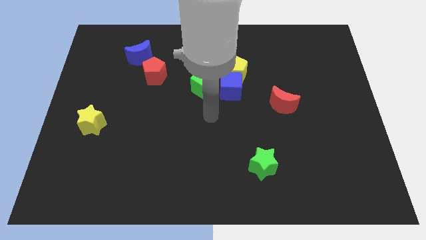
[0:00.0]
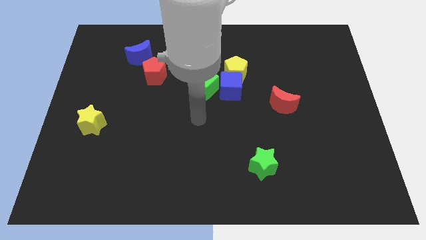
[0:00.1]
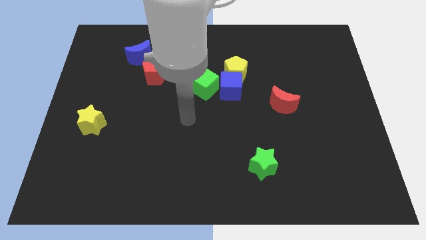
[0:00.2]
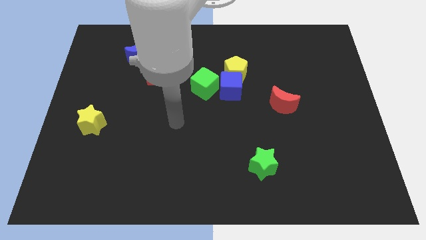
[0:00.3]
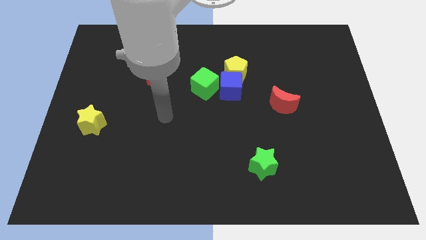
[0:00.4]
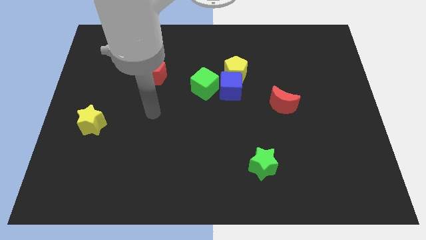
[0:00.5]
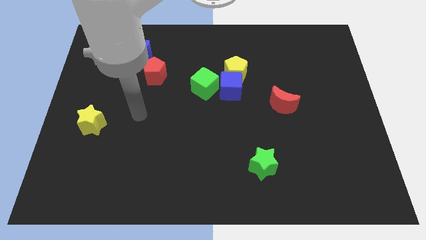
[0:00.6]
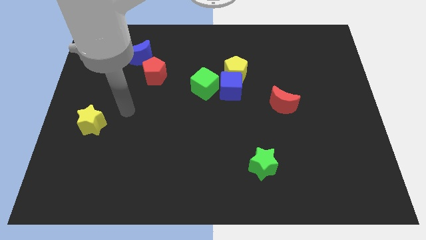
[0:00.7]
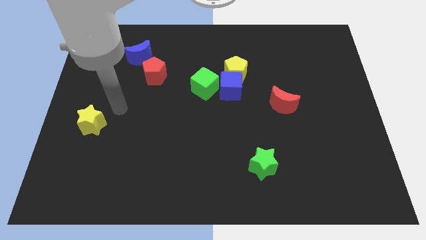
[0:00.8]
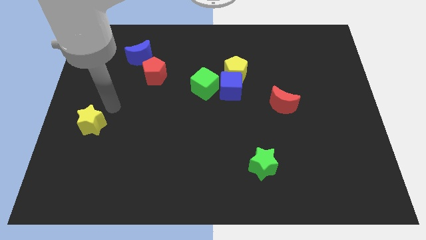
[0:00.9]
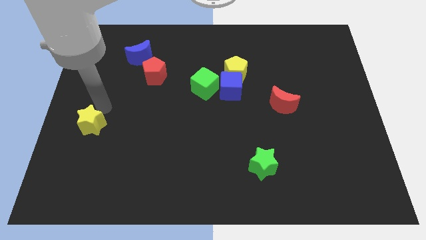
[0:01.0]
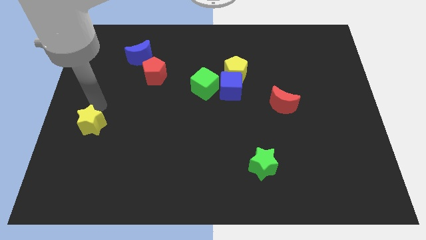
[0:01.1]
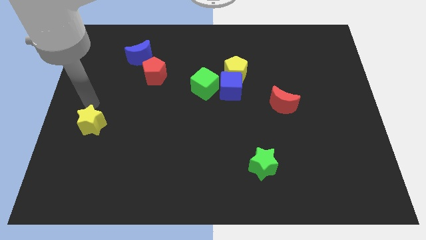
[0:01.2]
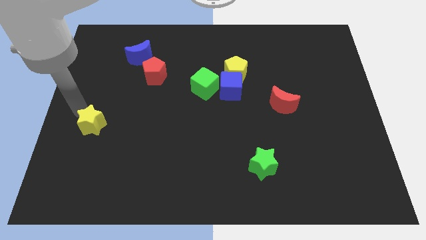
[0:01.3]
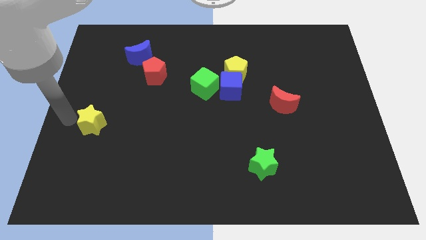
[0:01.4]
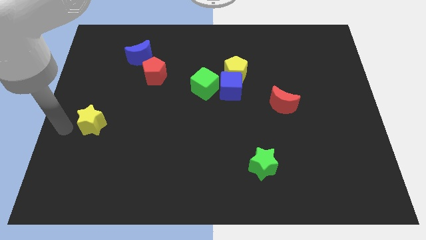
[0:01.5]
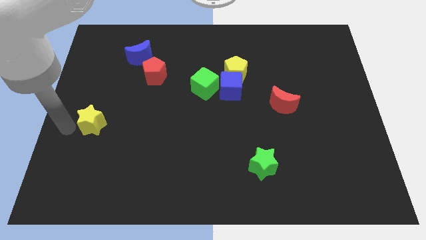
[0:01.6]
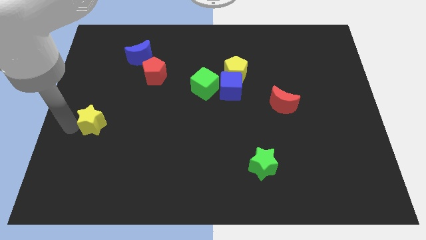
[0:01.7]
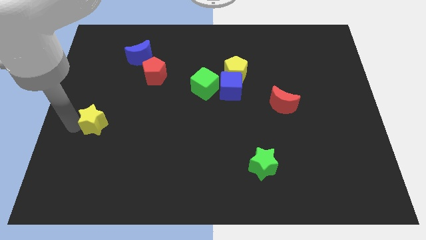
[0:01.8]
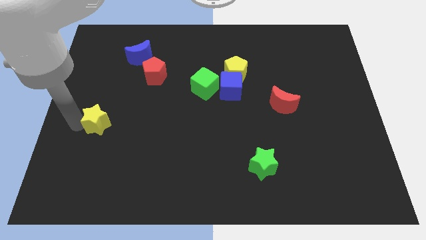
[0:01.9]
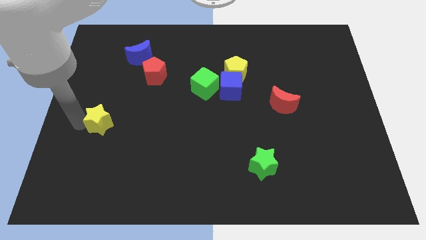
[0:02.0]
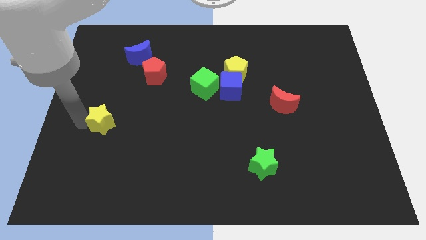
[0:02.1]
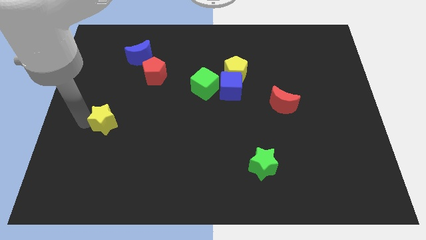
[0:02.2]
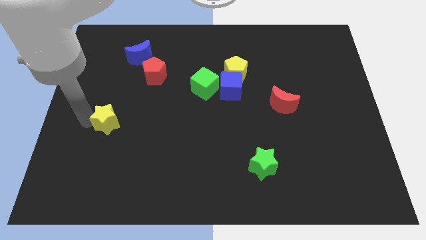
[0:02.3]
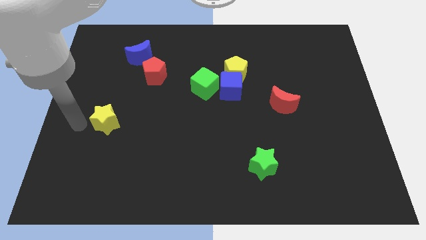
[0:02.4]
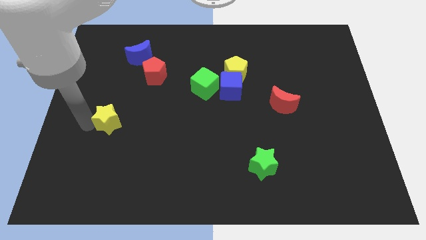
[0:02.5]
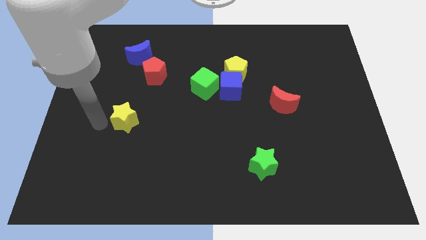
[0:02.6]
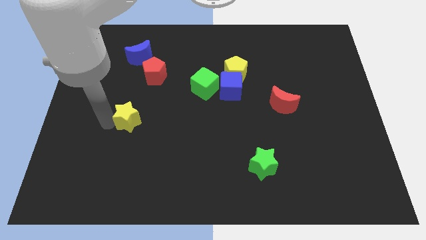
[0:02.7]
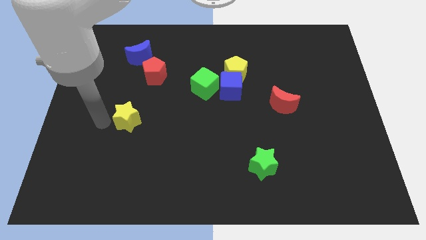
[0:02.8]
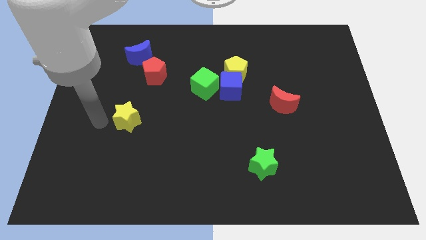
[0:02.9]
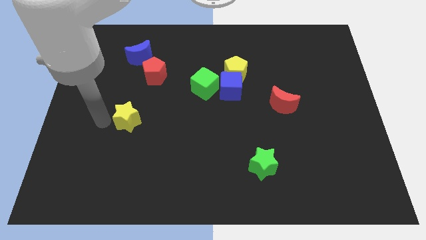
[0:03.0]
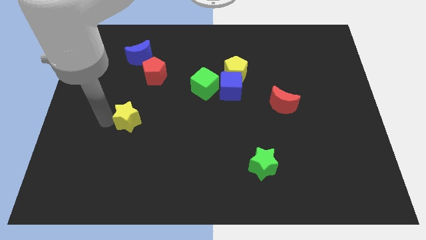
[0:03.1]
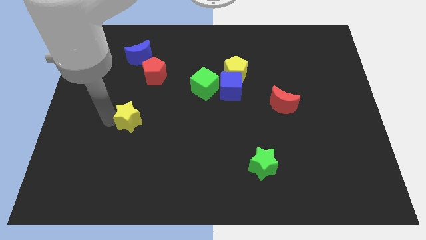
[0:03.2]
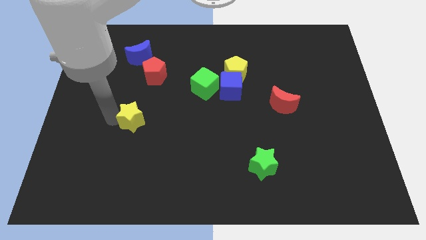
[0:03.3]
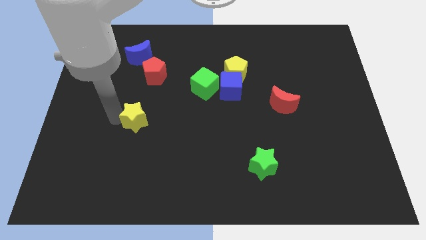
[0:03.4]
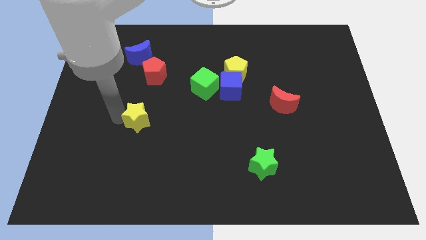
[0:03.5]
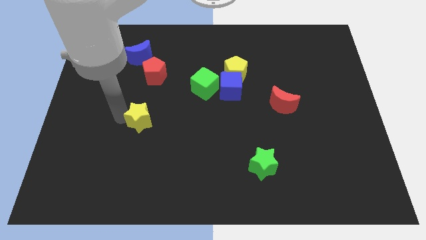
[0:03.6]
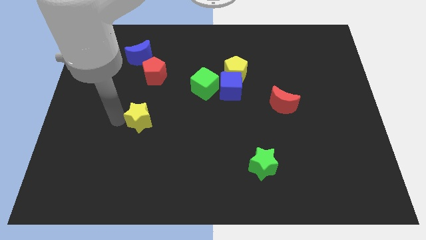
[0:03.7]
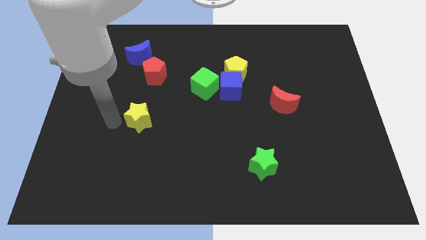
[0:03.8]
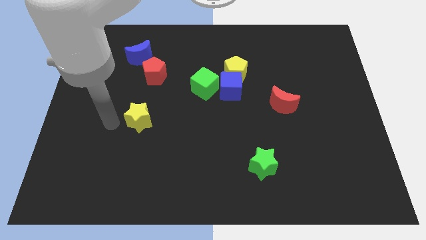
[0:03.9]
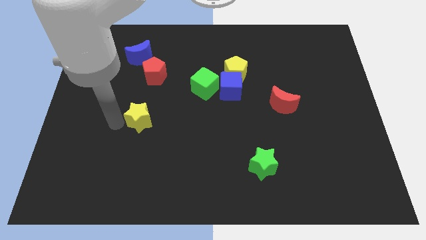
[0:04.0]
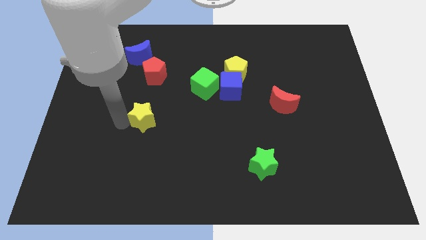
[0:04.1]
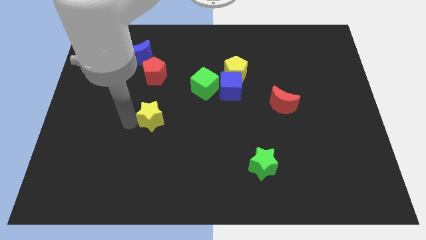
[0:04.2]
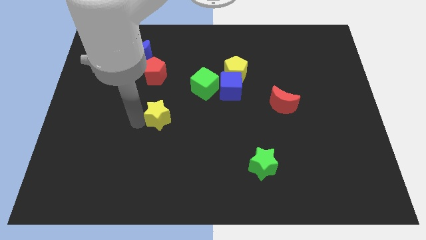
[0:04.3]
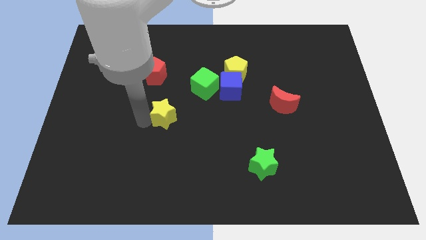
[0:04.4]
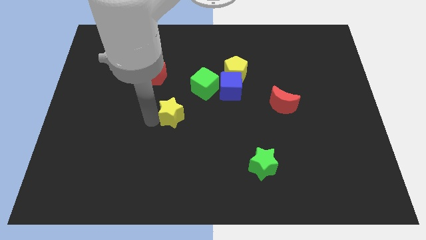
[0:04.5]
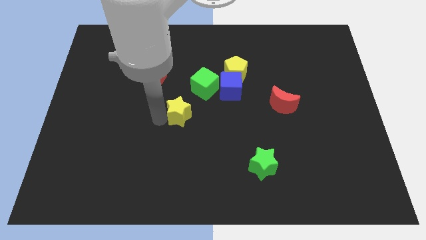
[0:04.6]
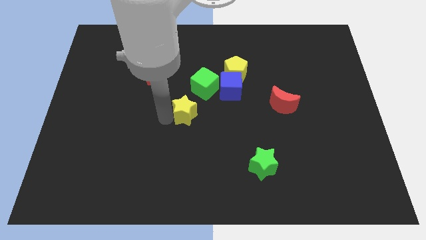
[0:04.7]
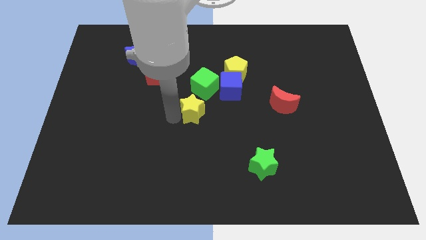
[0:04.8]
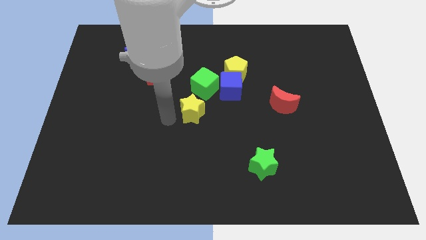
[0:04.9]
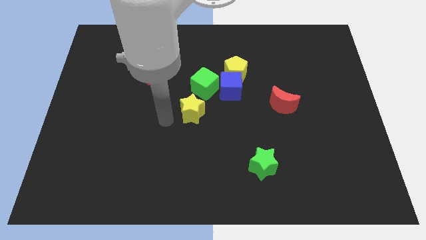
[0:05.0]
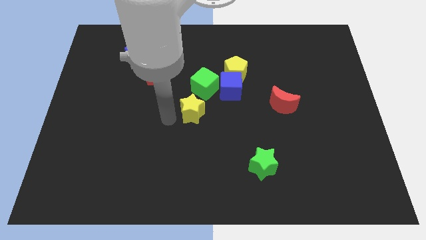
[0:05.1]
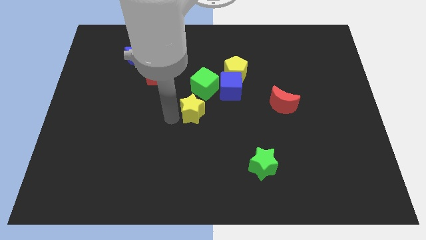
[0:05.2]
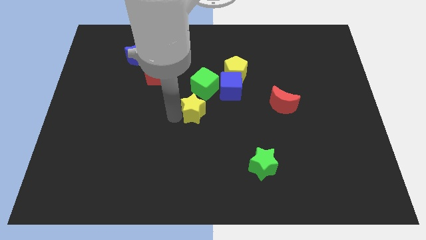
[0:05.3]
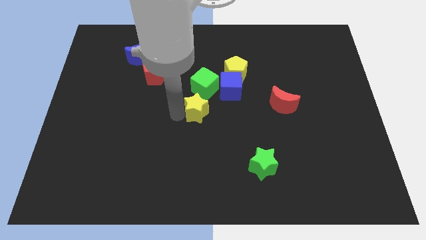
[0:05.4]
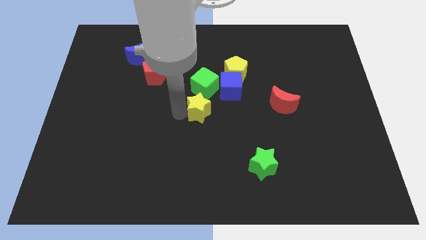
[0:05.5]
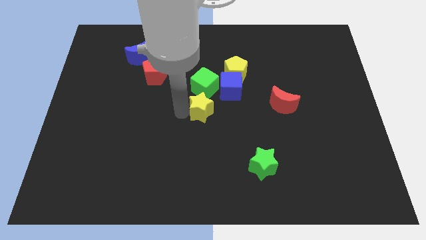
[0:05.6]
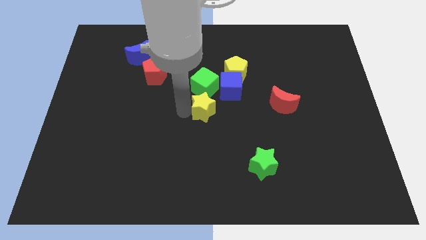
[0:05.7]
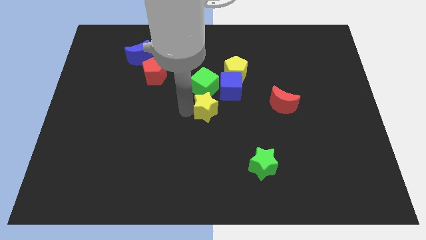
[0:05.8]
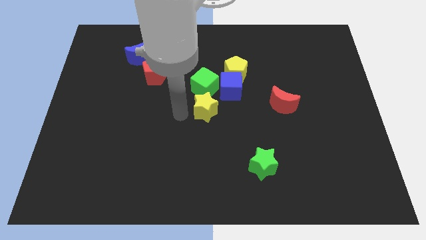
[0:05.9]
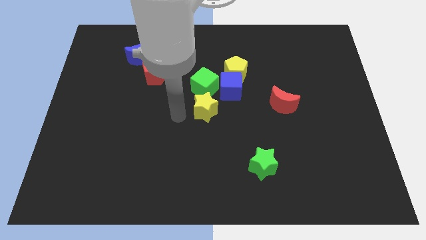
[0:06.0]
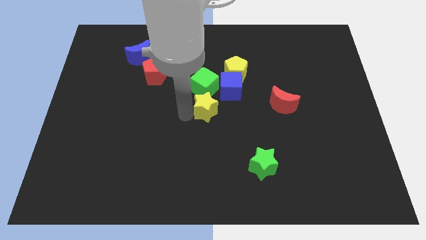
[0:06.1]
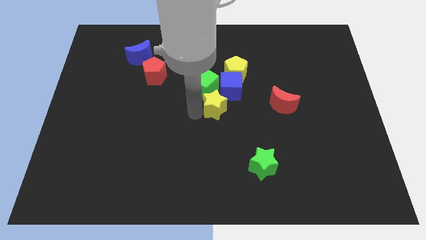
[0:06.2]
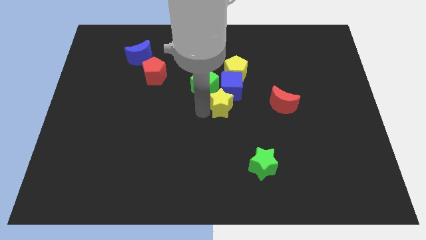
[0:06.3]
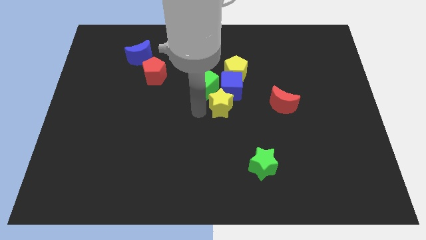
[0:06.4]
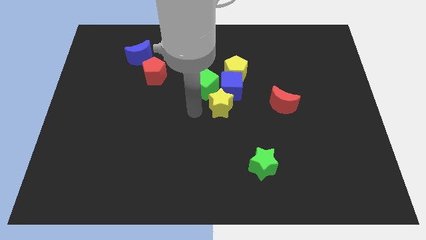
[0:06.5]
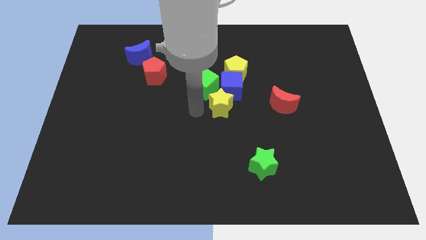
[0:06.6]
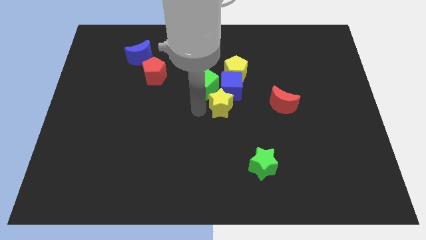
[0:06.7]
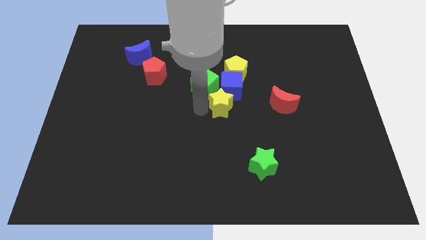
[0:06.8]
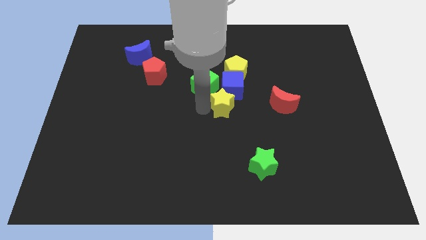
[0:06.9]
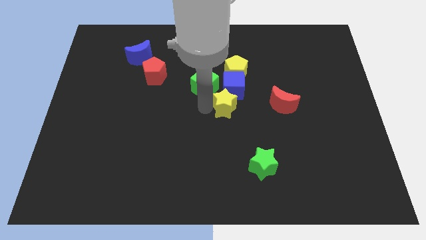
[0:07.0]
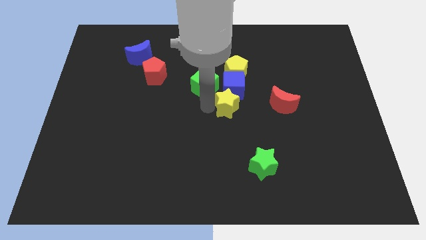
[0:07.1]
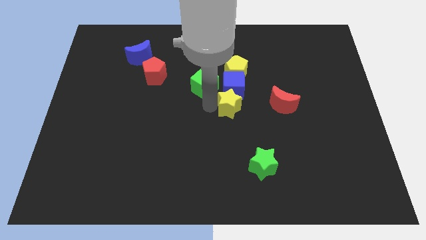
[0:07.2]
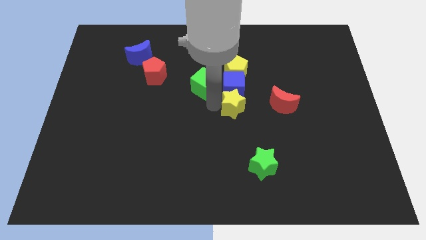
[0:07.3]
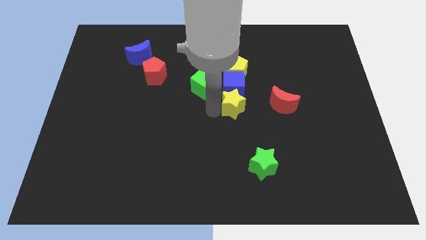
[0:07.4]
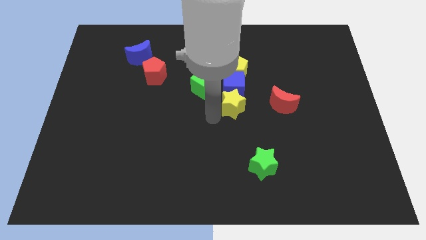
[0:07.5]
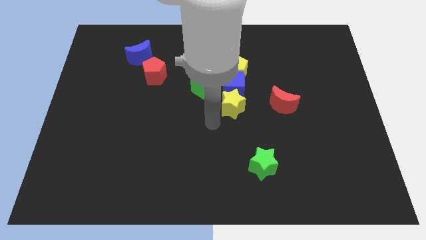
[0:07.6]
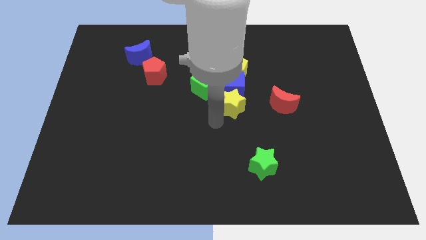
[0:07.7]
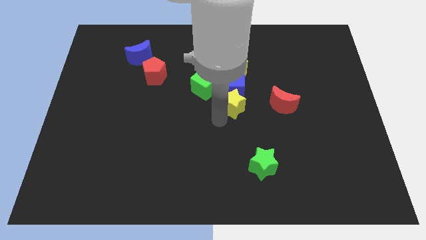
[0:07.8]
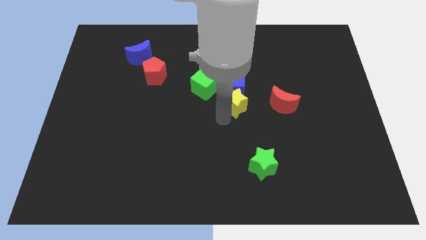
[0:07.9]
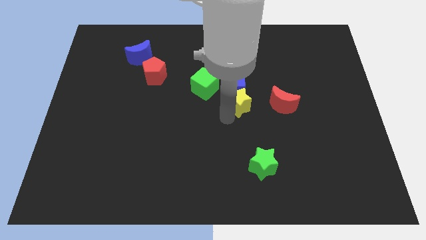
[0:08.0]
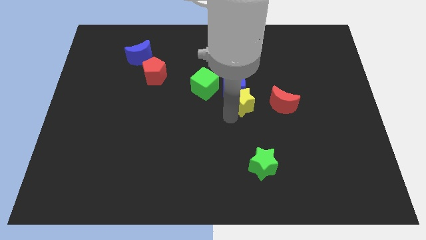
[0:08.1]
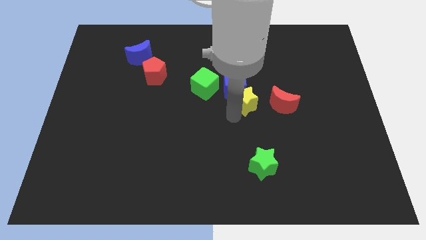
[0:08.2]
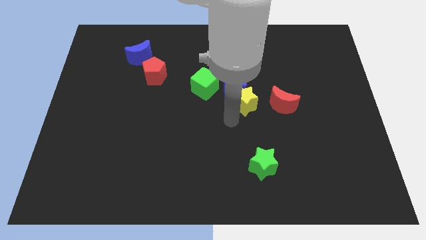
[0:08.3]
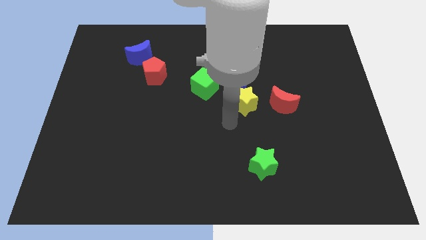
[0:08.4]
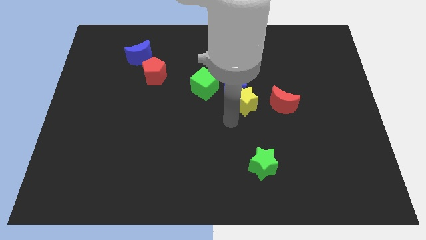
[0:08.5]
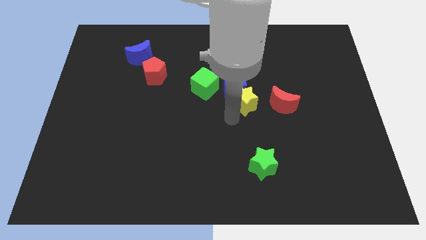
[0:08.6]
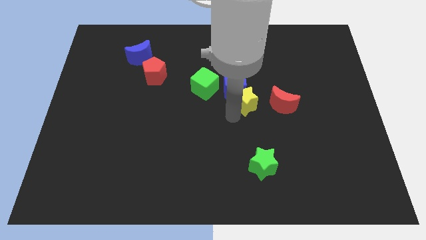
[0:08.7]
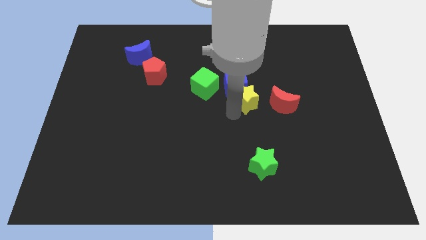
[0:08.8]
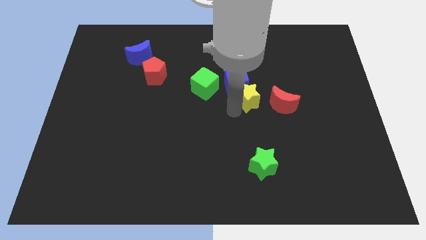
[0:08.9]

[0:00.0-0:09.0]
slide the yellow star to the top left of the red moon
